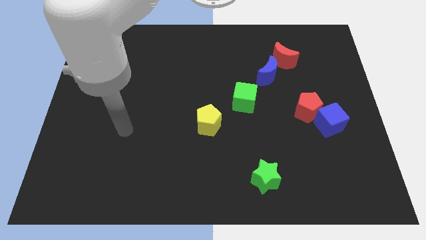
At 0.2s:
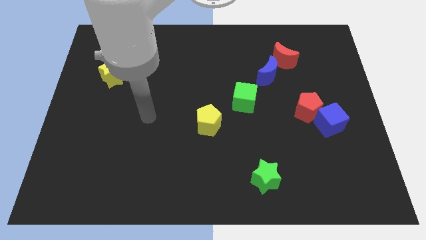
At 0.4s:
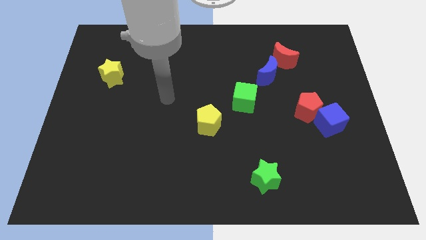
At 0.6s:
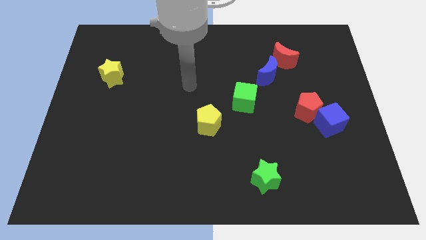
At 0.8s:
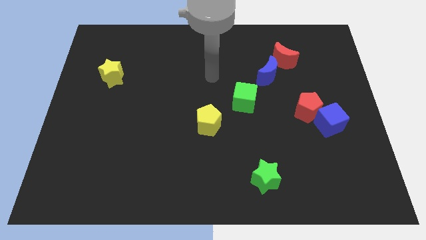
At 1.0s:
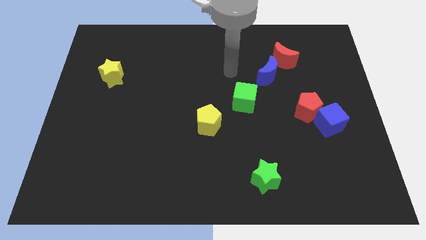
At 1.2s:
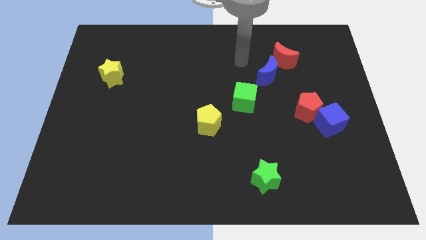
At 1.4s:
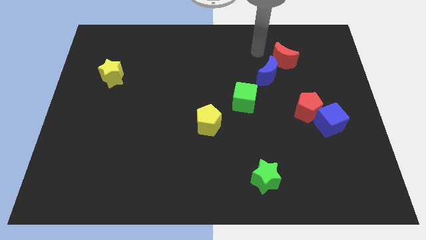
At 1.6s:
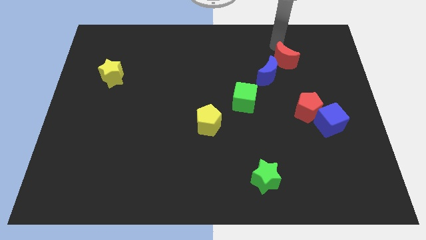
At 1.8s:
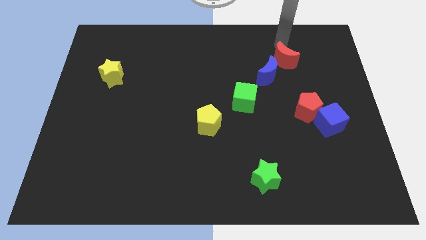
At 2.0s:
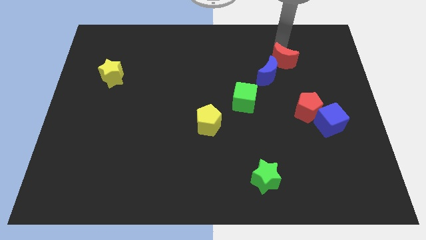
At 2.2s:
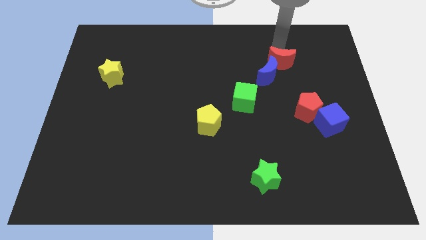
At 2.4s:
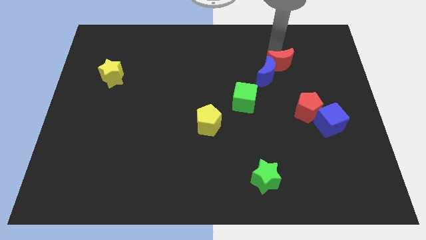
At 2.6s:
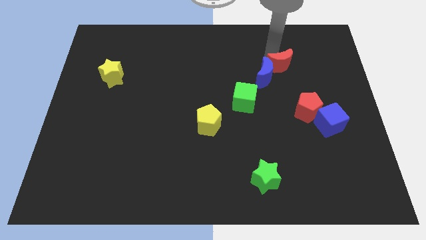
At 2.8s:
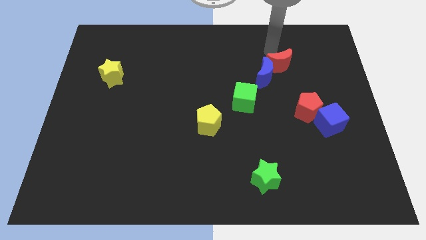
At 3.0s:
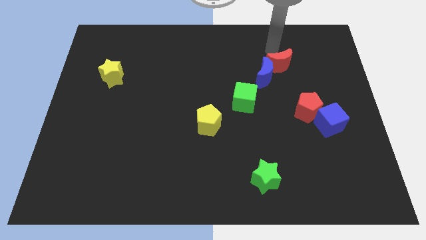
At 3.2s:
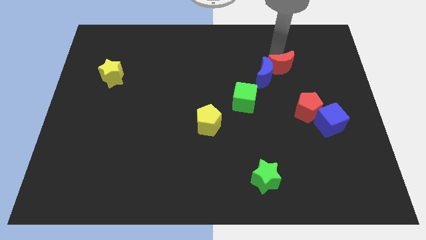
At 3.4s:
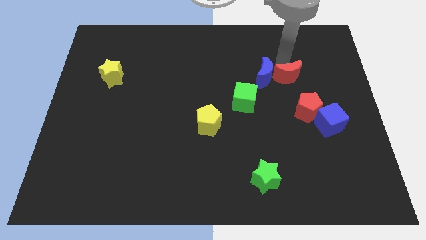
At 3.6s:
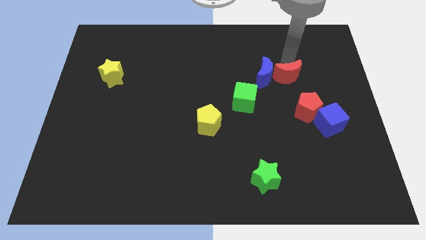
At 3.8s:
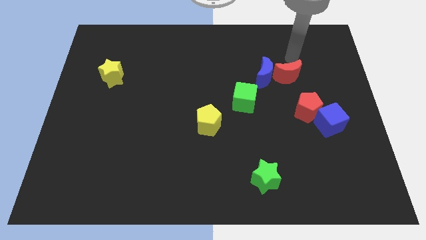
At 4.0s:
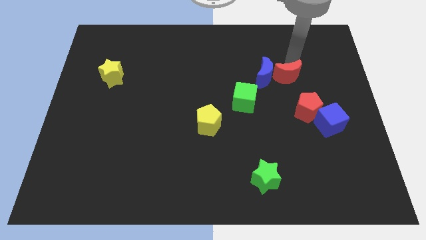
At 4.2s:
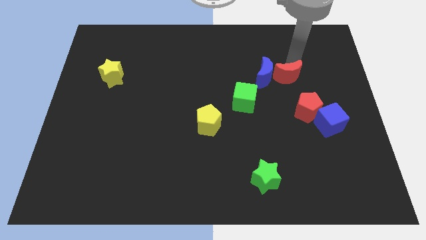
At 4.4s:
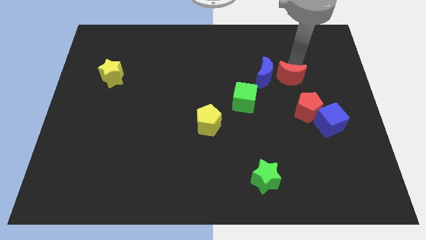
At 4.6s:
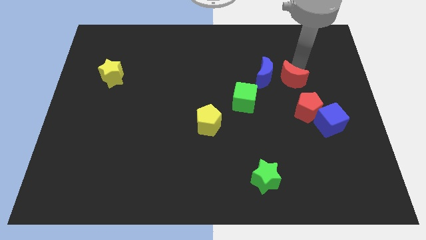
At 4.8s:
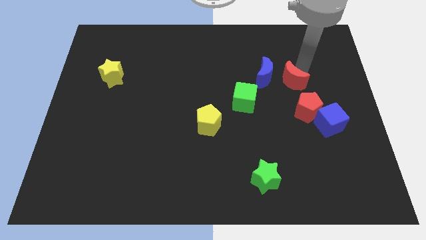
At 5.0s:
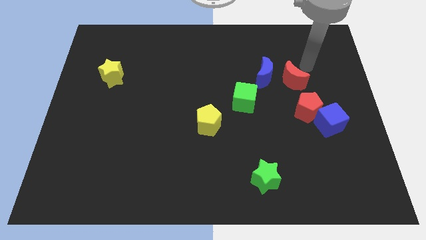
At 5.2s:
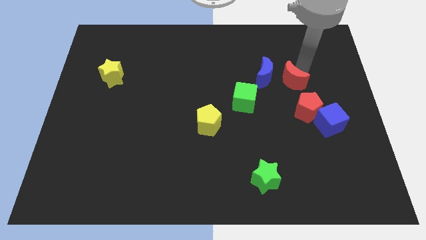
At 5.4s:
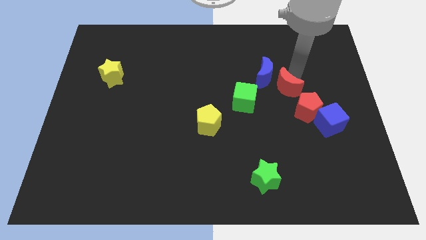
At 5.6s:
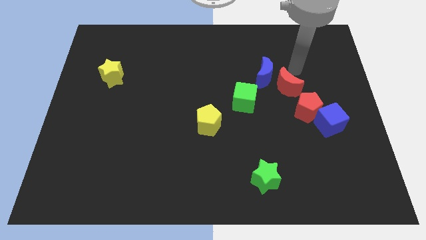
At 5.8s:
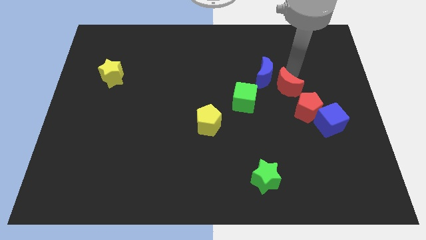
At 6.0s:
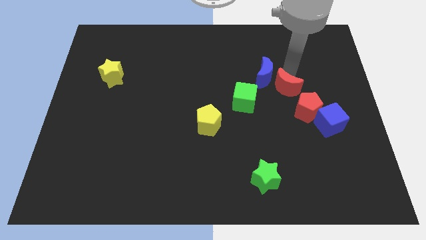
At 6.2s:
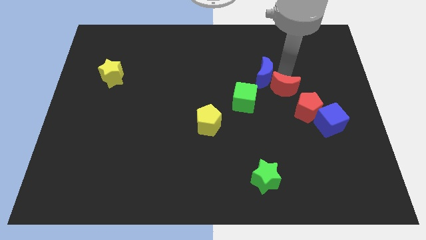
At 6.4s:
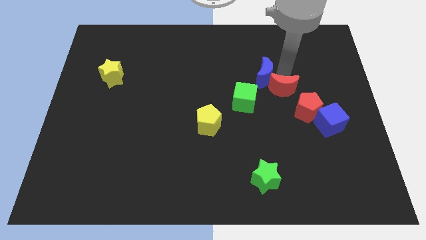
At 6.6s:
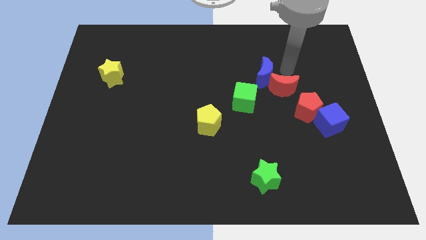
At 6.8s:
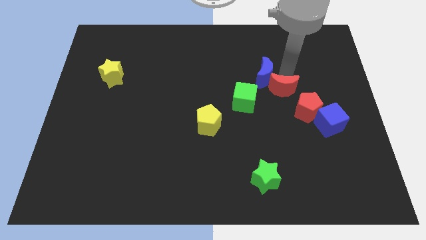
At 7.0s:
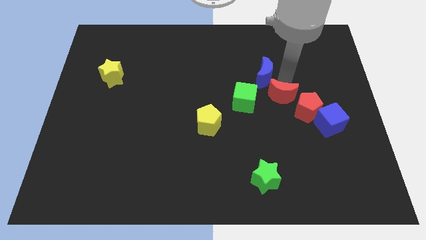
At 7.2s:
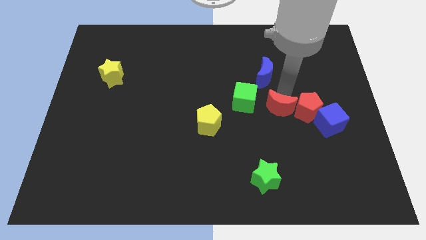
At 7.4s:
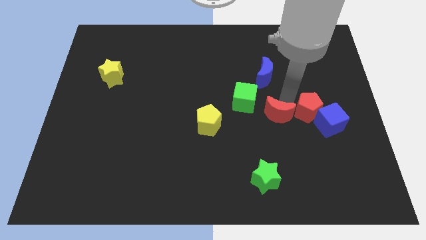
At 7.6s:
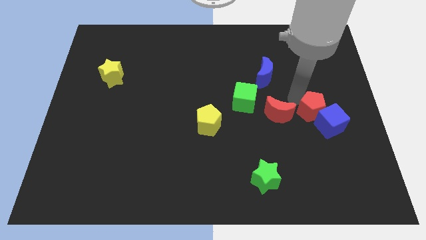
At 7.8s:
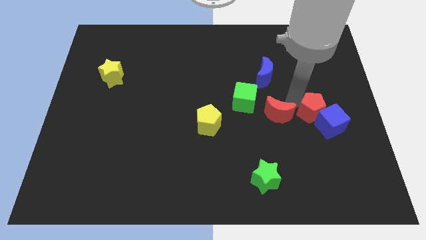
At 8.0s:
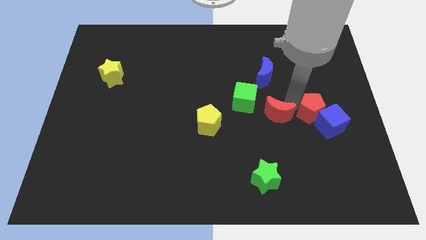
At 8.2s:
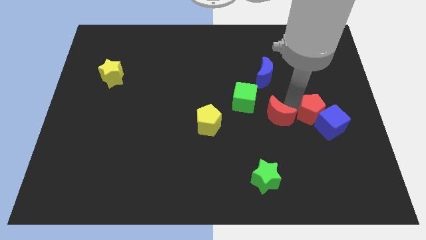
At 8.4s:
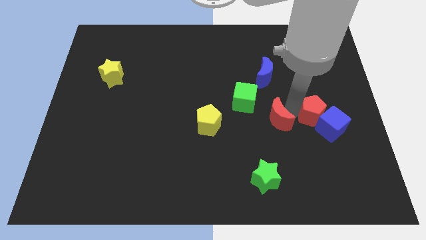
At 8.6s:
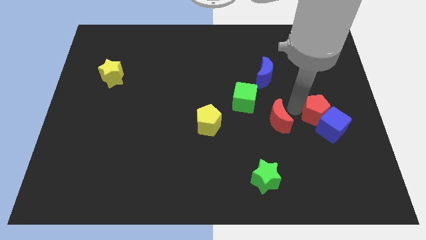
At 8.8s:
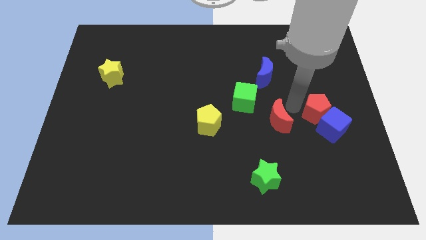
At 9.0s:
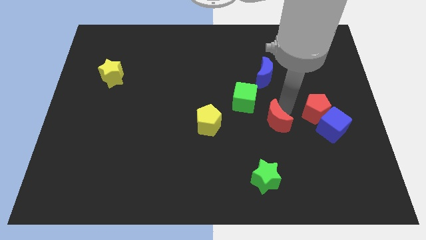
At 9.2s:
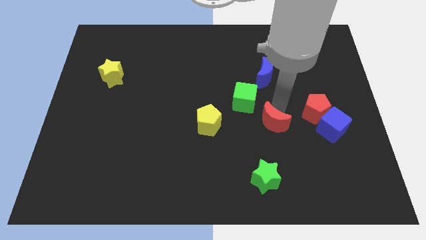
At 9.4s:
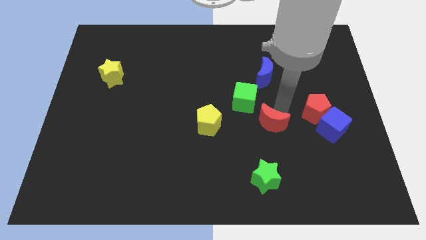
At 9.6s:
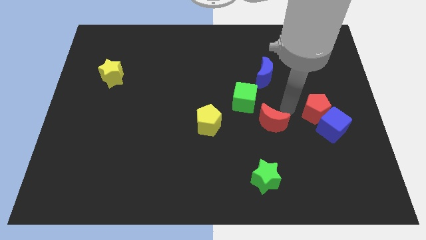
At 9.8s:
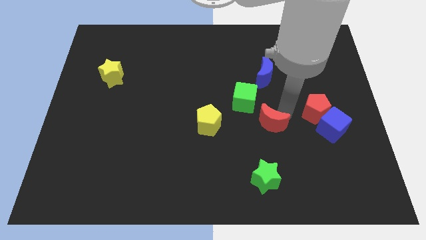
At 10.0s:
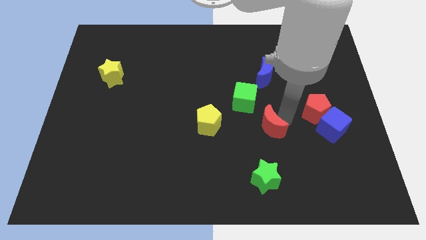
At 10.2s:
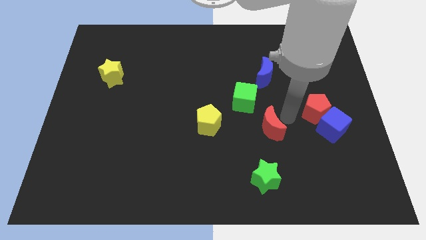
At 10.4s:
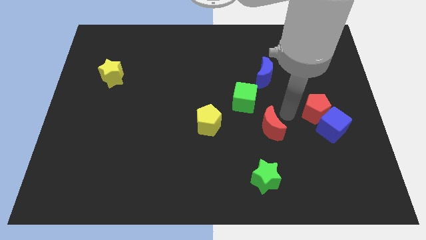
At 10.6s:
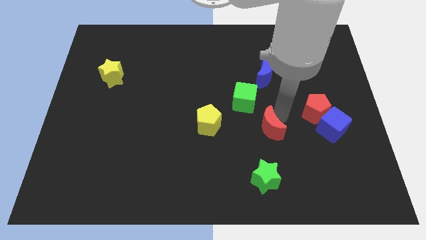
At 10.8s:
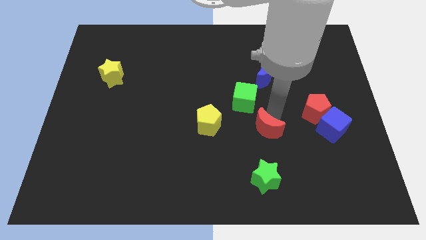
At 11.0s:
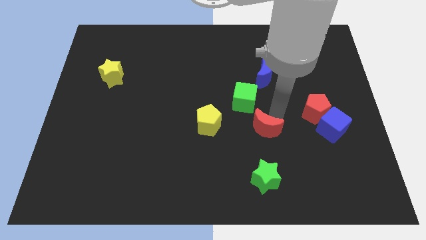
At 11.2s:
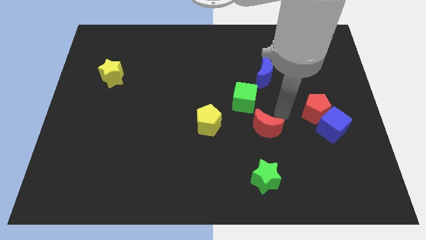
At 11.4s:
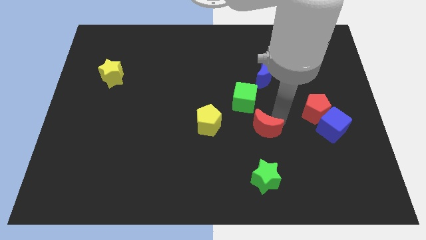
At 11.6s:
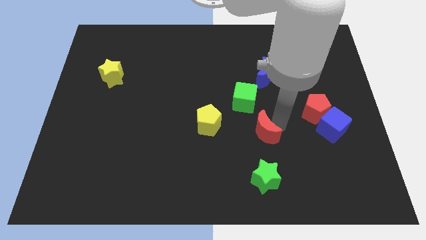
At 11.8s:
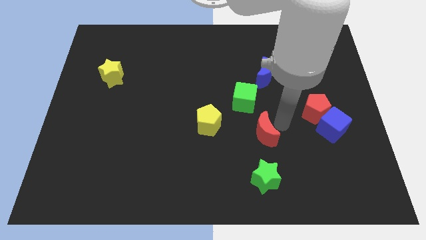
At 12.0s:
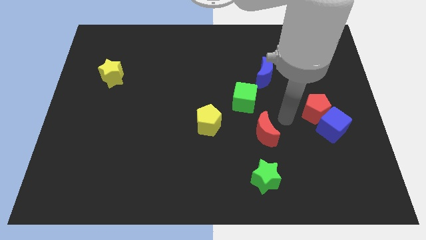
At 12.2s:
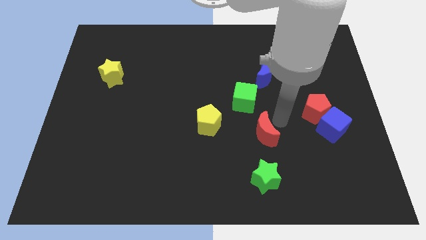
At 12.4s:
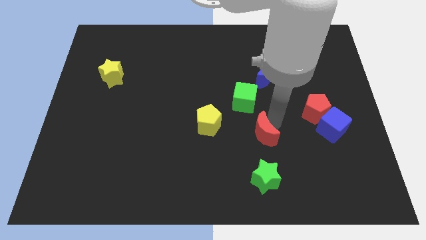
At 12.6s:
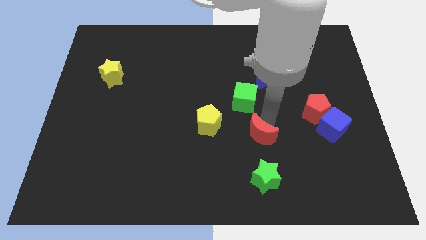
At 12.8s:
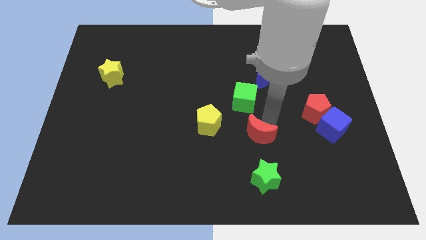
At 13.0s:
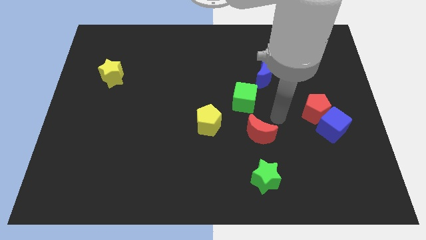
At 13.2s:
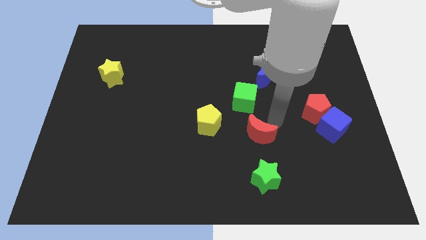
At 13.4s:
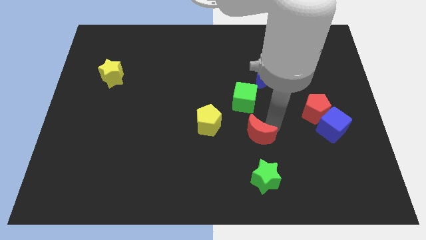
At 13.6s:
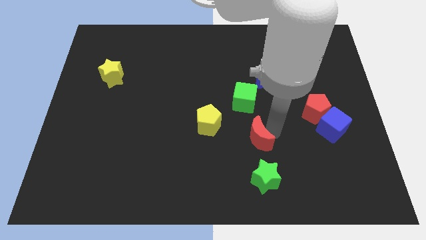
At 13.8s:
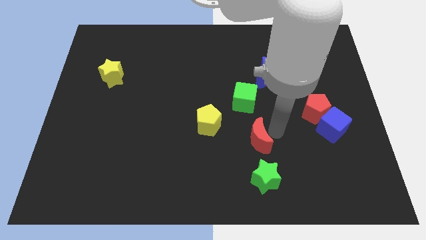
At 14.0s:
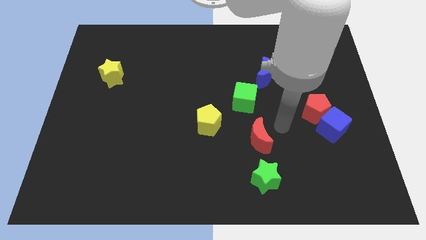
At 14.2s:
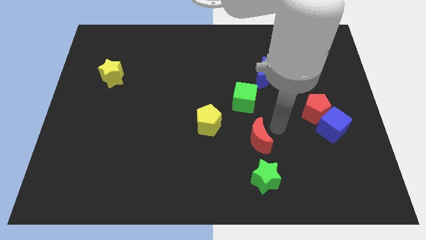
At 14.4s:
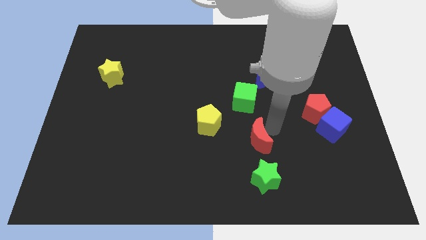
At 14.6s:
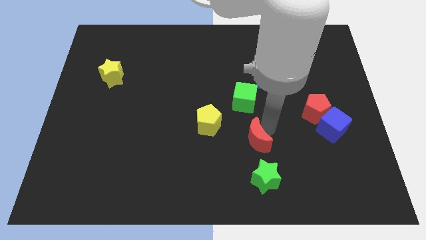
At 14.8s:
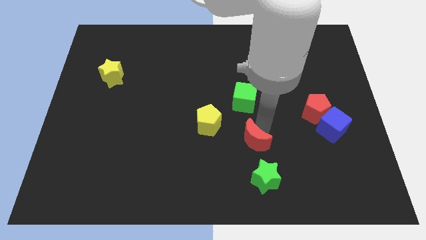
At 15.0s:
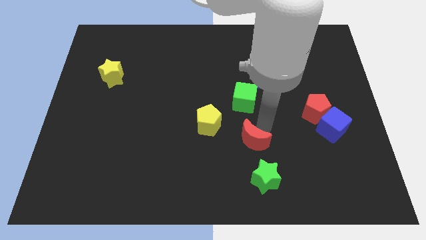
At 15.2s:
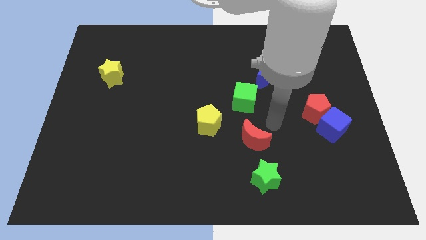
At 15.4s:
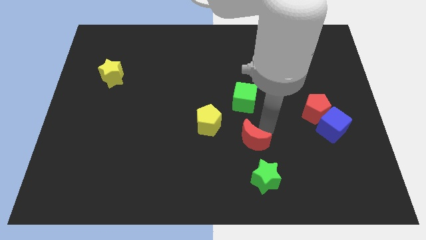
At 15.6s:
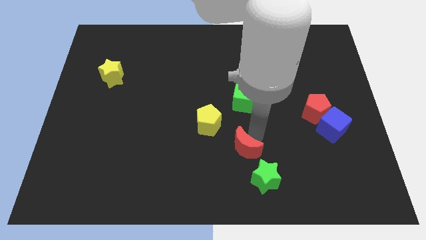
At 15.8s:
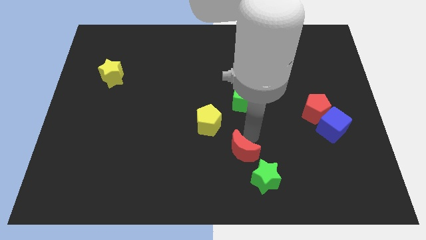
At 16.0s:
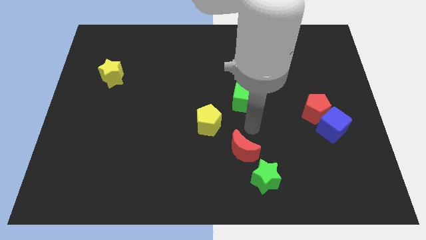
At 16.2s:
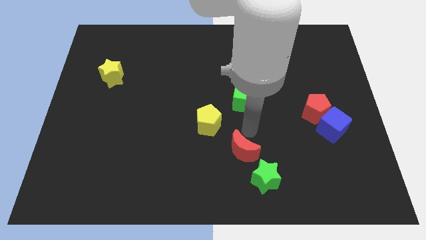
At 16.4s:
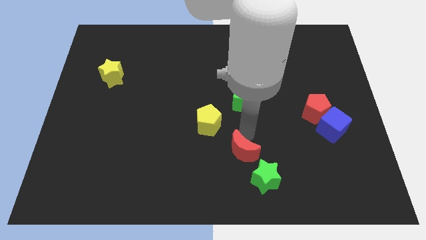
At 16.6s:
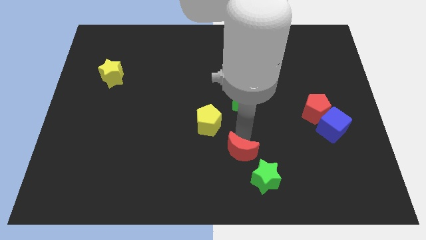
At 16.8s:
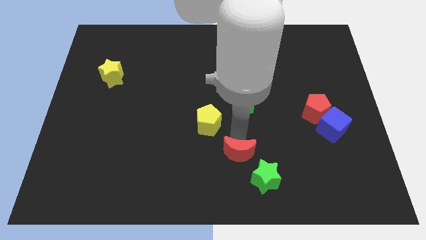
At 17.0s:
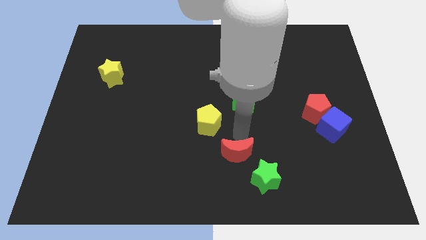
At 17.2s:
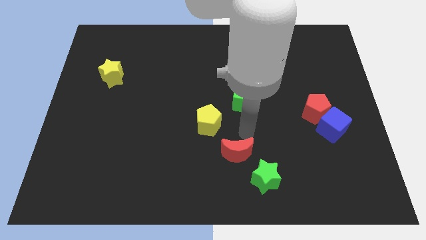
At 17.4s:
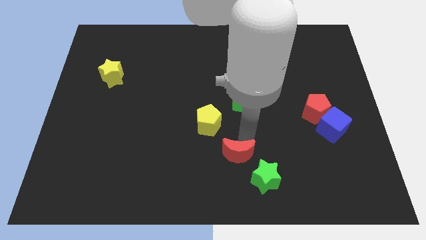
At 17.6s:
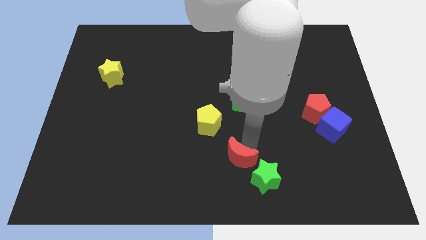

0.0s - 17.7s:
push the red moon to the bottom side
